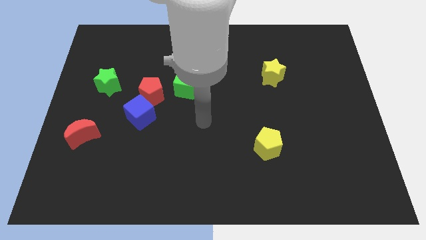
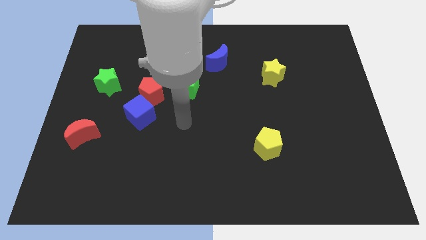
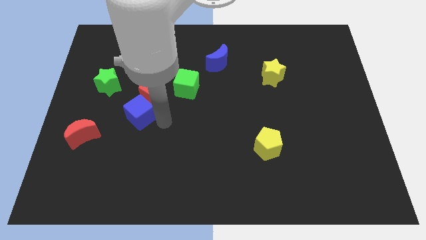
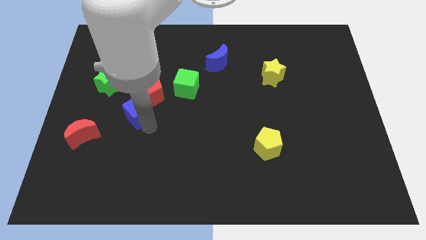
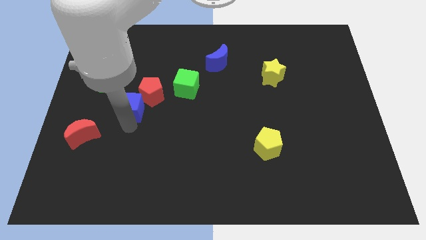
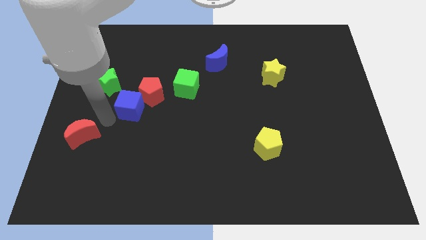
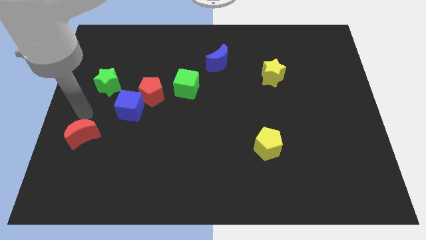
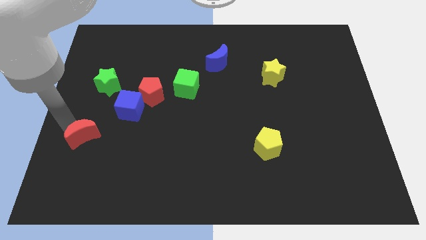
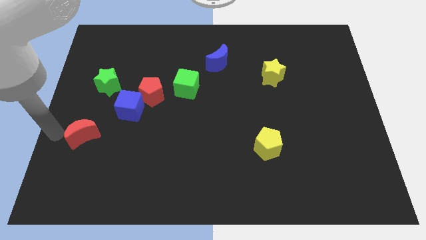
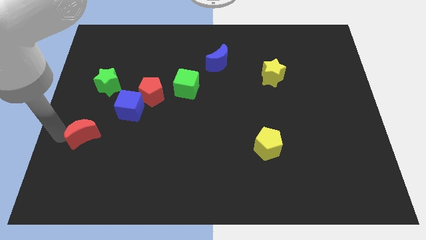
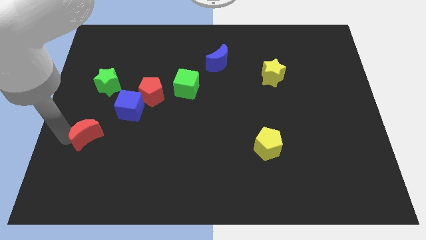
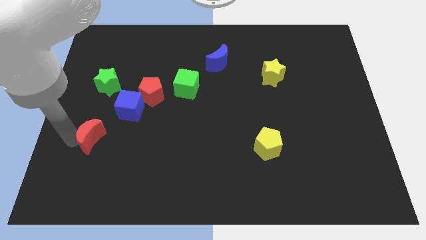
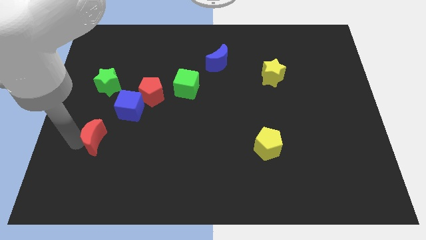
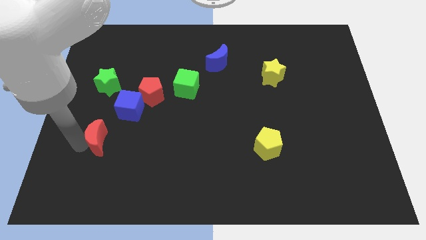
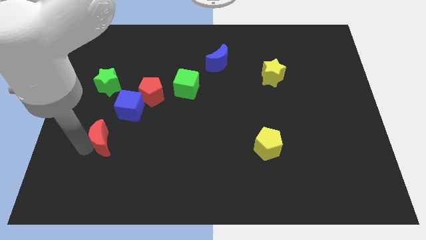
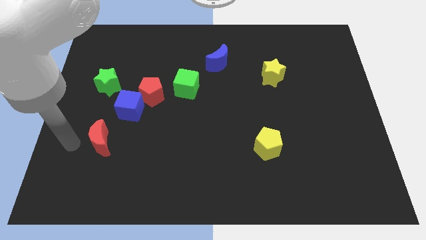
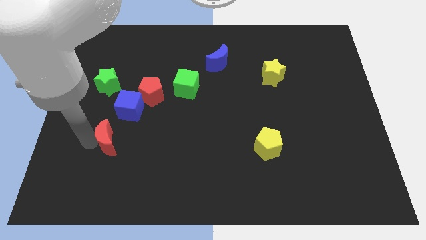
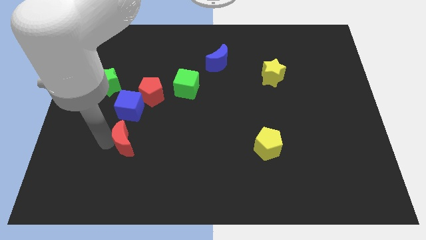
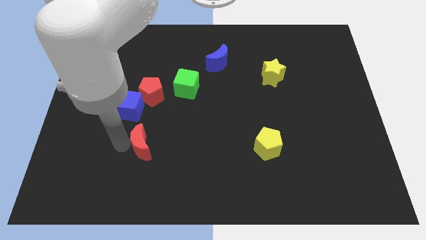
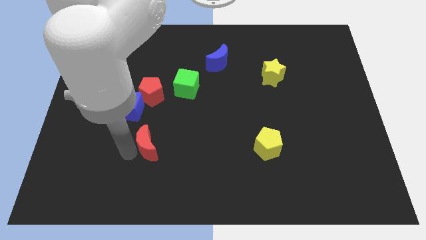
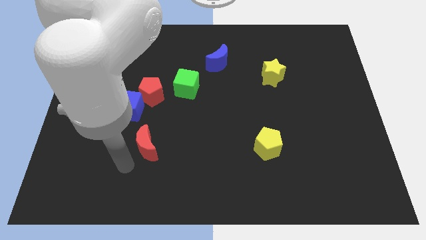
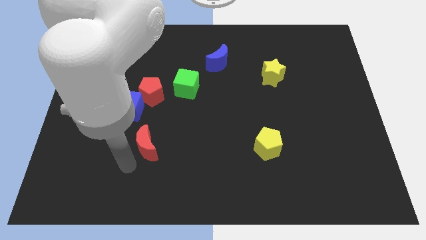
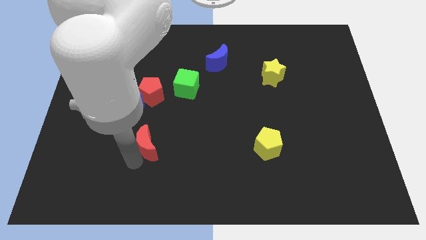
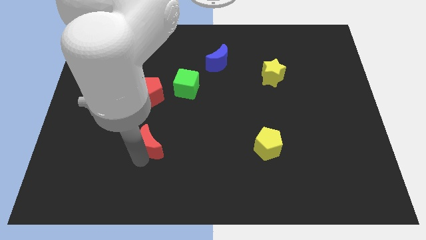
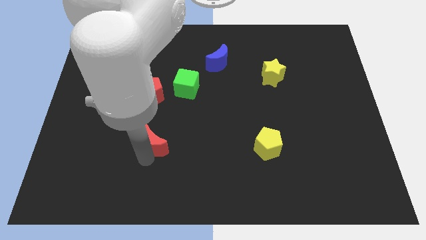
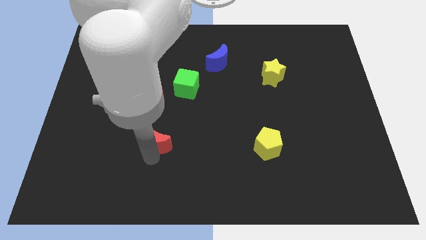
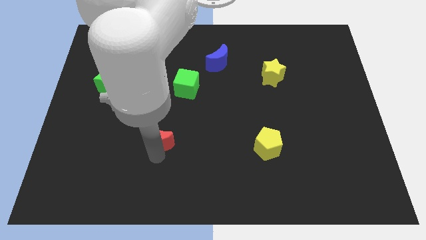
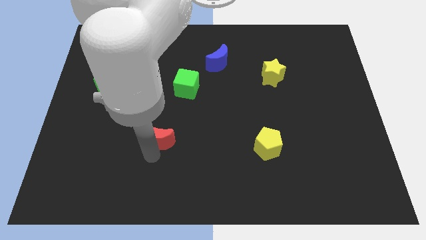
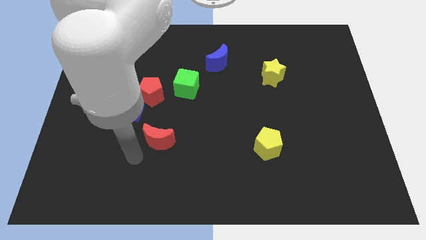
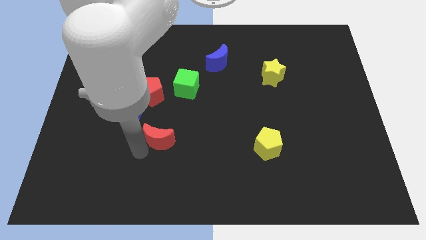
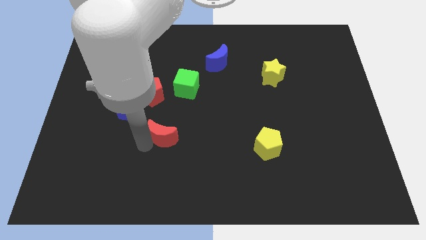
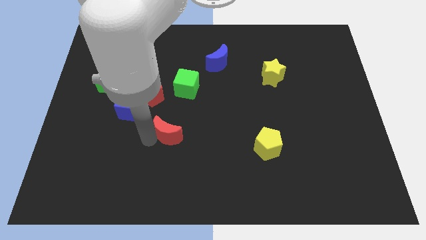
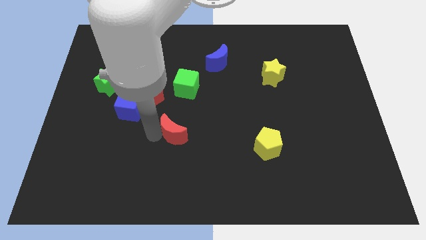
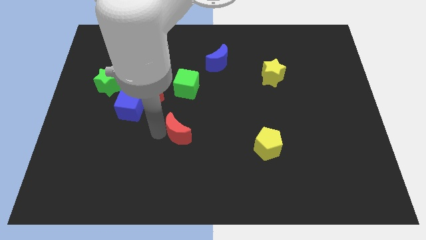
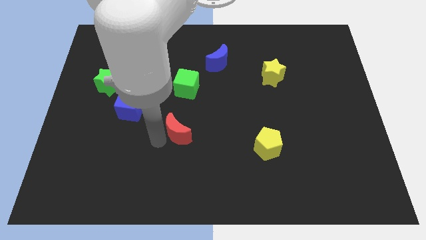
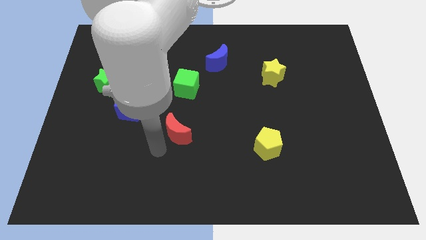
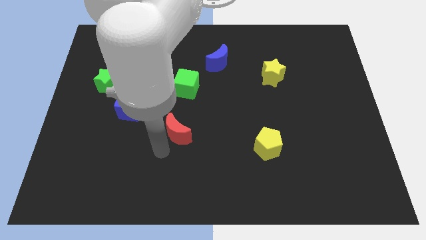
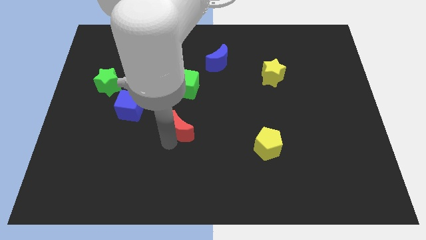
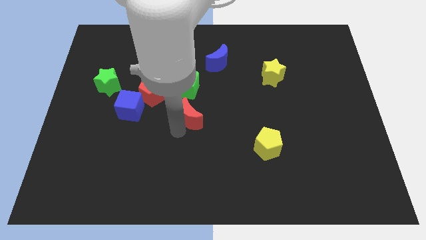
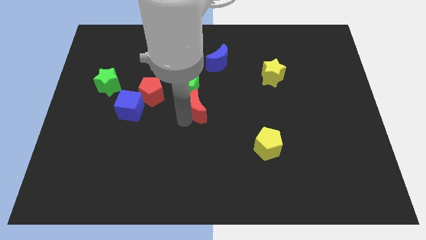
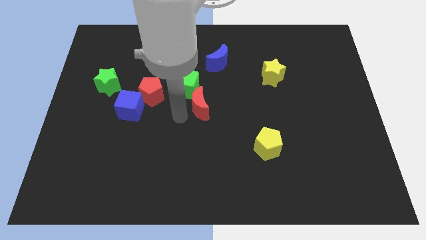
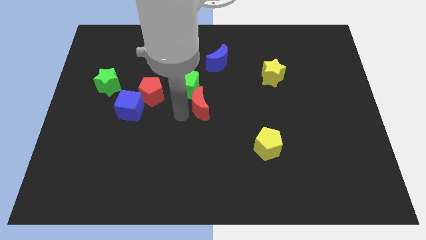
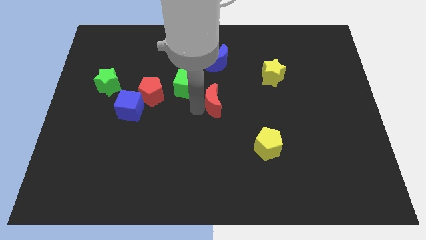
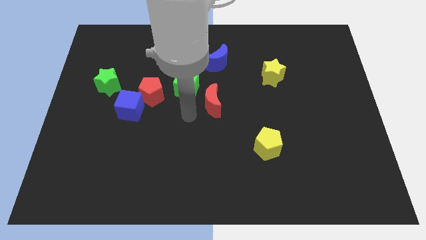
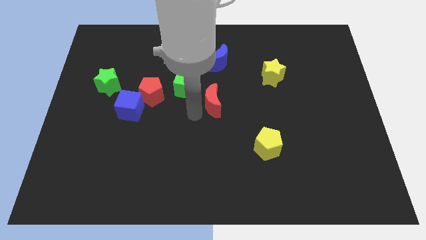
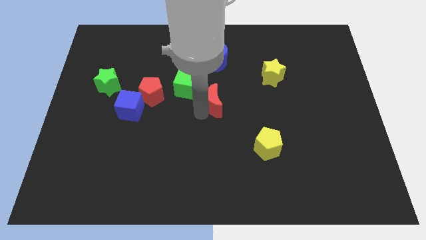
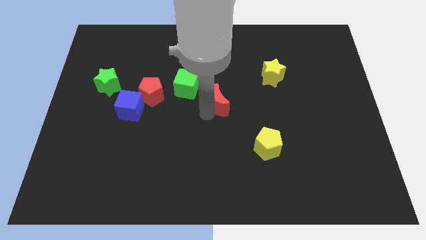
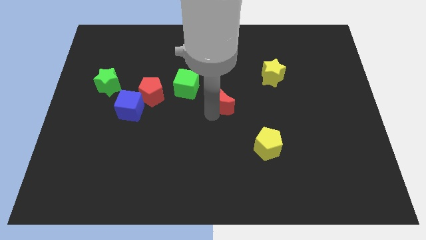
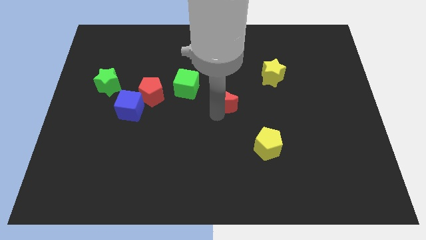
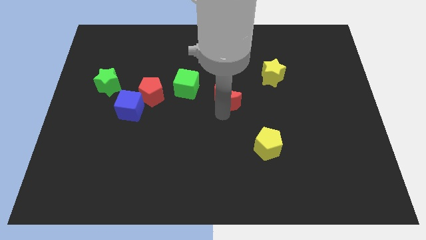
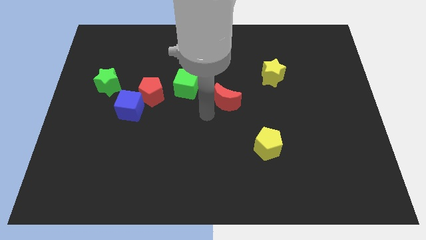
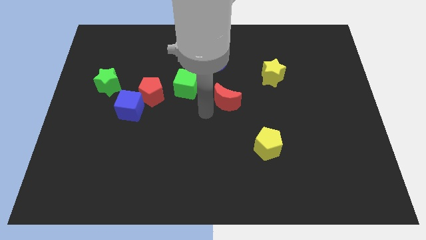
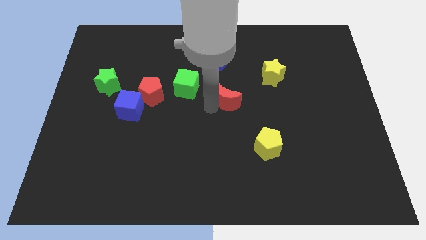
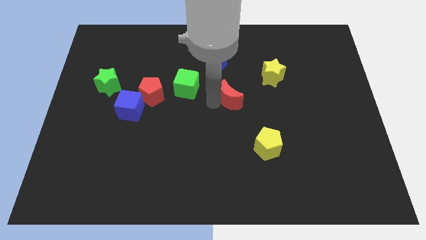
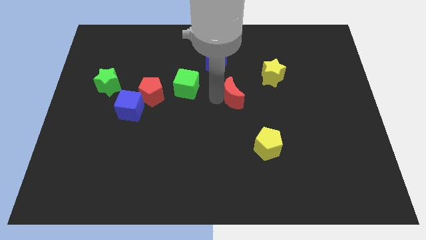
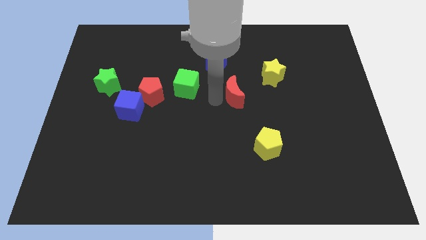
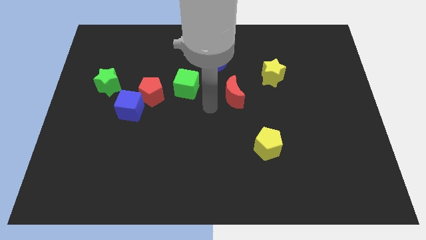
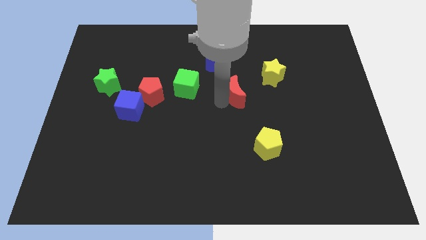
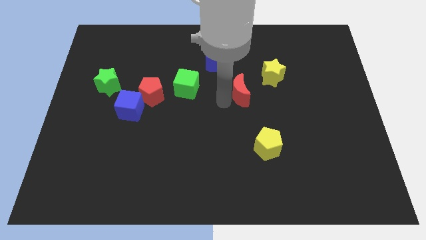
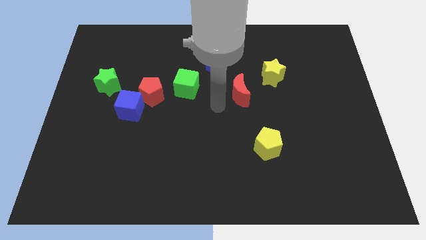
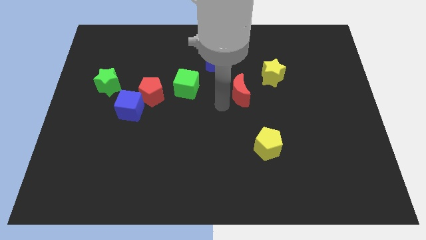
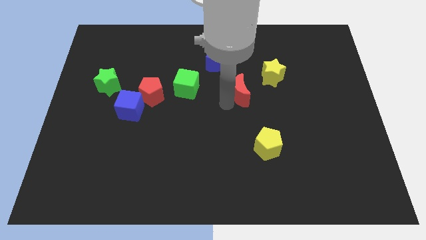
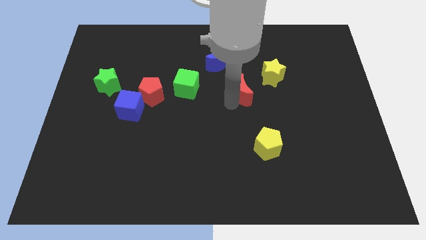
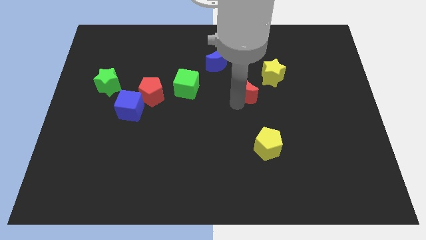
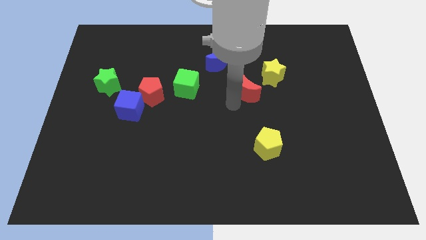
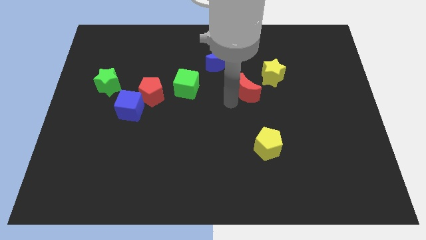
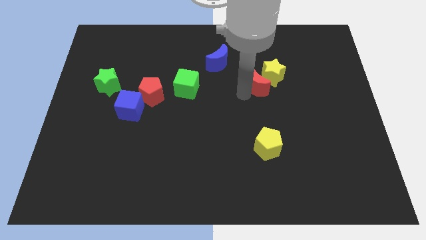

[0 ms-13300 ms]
slide the red moon to the yellow star

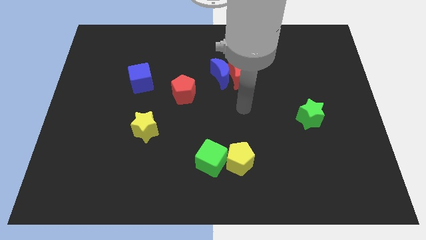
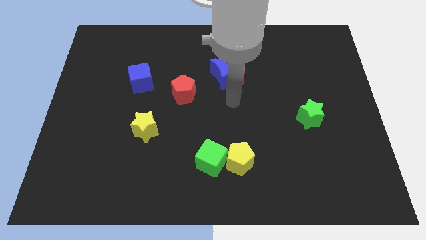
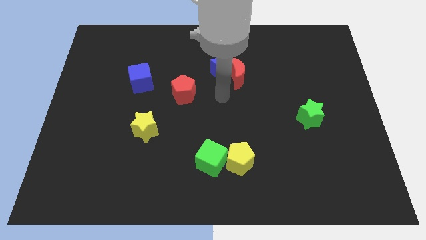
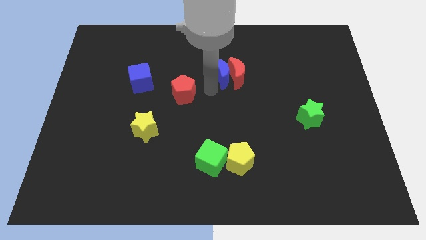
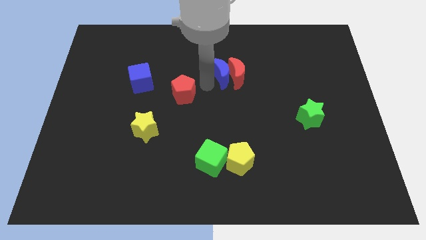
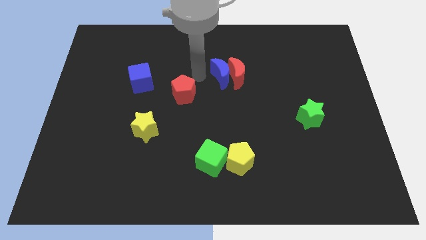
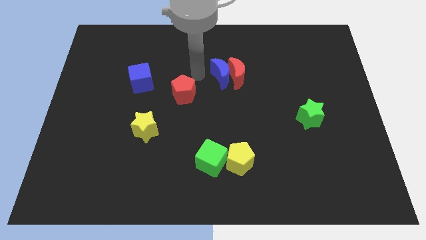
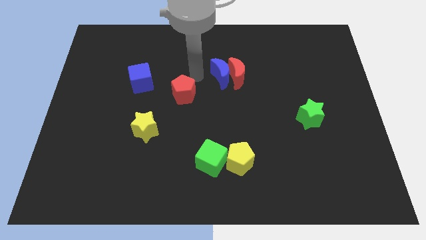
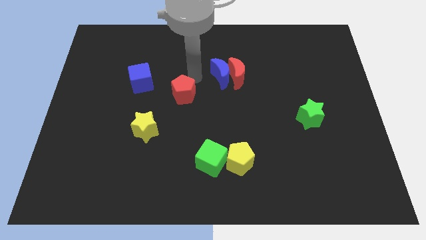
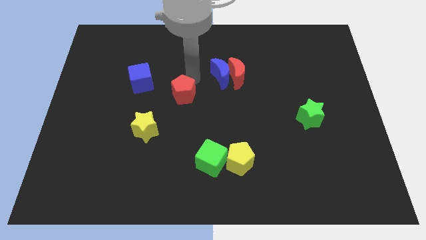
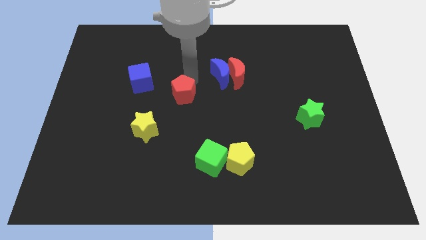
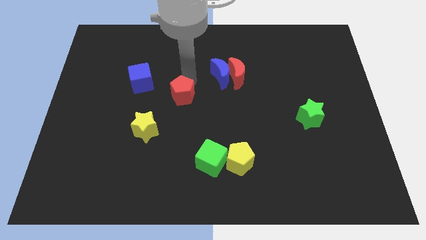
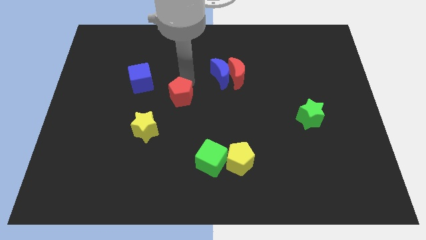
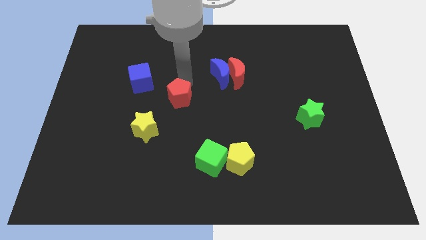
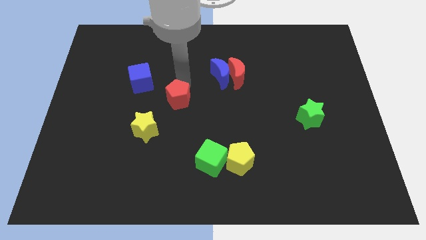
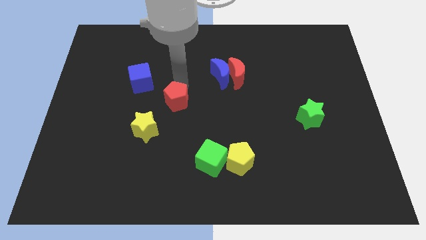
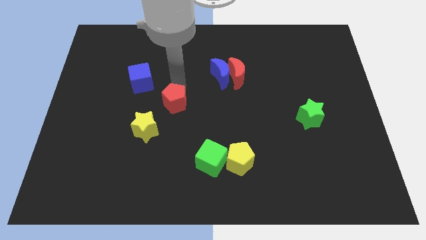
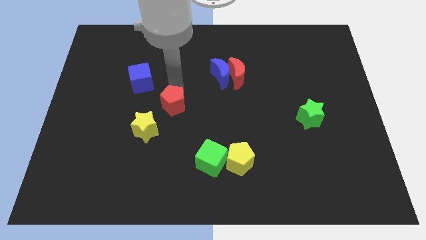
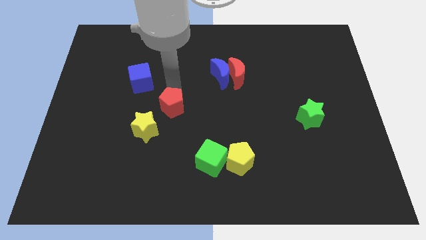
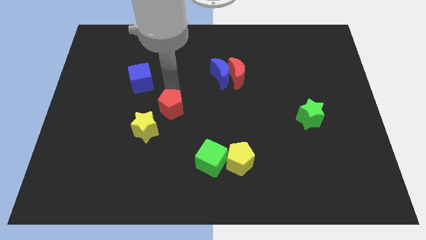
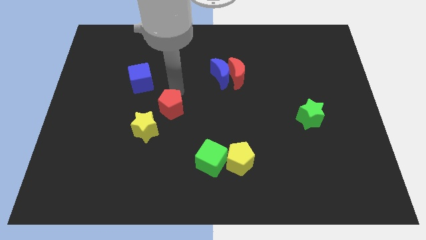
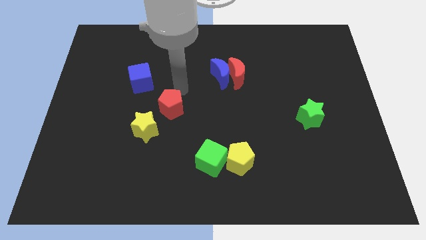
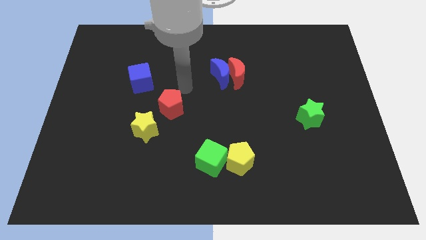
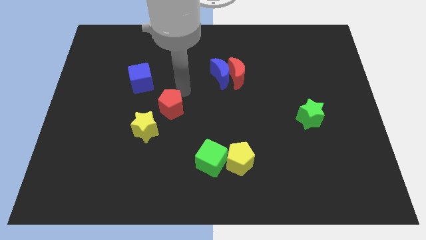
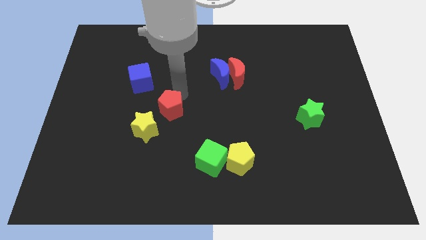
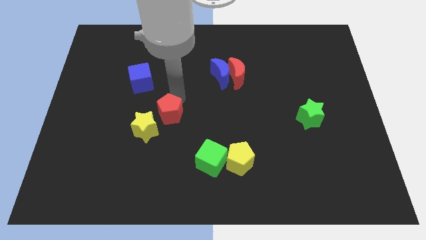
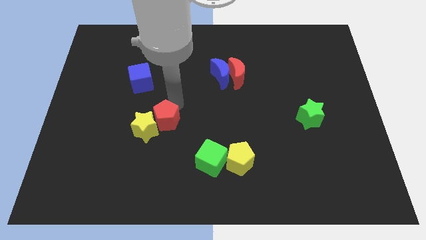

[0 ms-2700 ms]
move the red pentagon towards the yellow star
